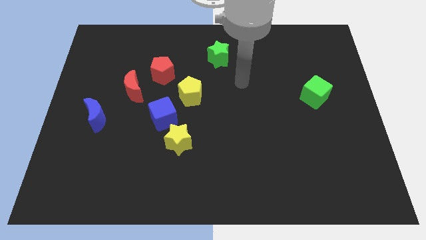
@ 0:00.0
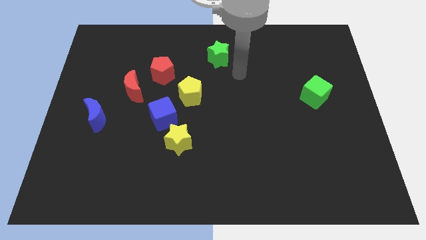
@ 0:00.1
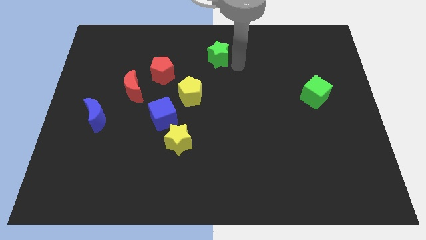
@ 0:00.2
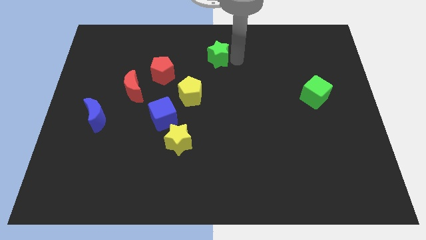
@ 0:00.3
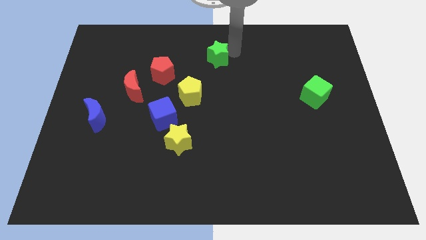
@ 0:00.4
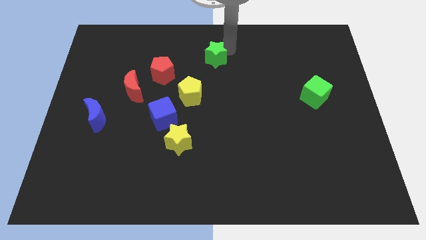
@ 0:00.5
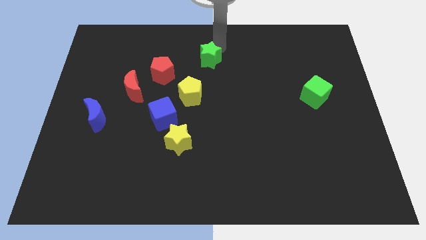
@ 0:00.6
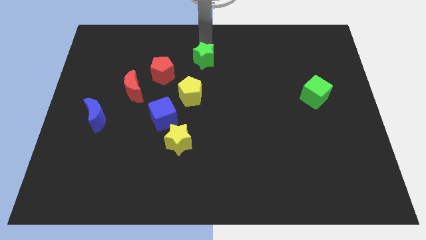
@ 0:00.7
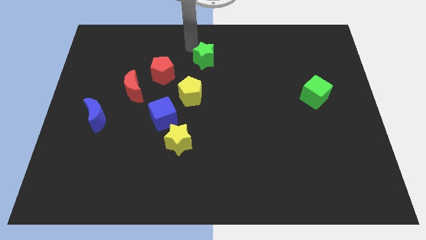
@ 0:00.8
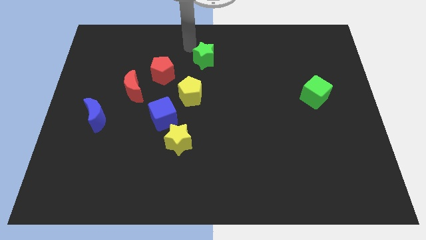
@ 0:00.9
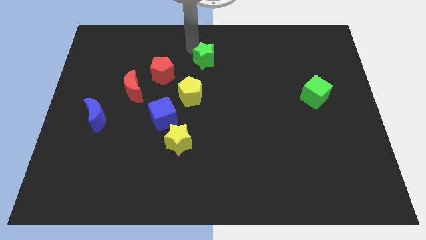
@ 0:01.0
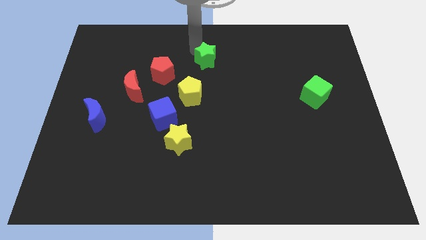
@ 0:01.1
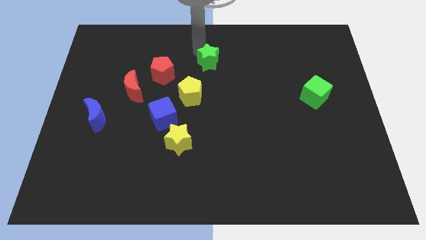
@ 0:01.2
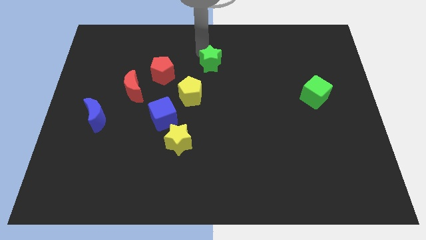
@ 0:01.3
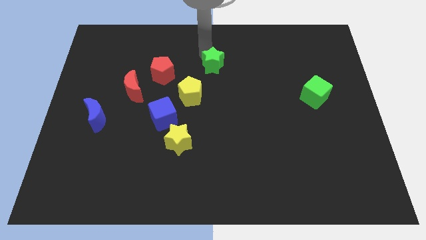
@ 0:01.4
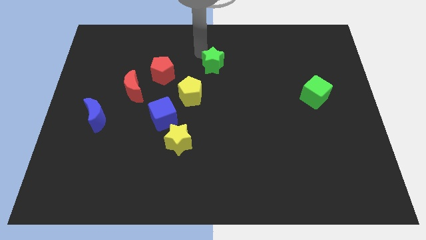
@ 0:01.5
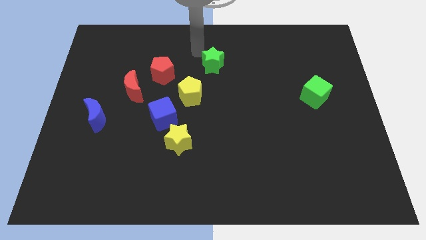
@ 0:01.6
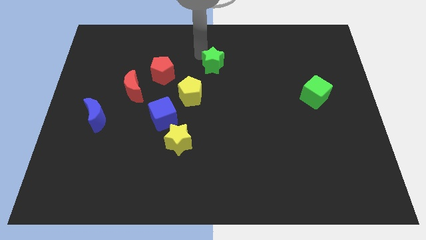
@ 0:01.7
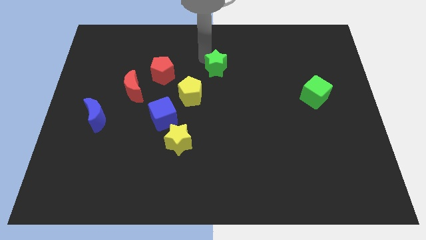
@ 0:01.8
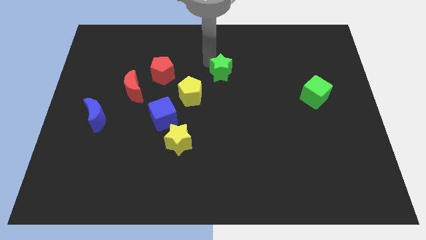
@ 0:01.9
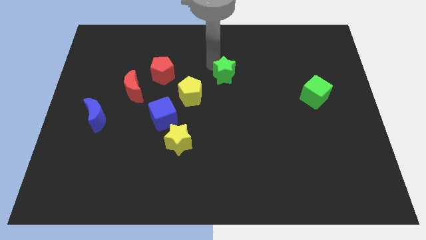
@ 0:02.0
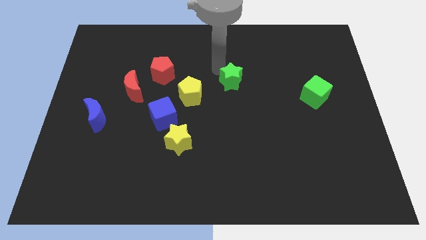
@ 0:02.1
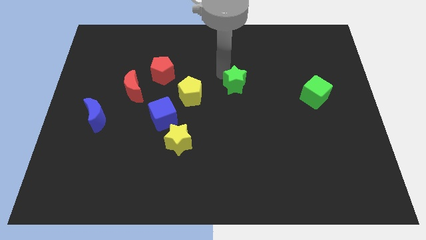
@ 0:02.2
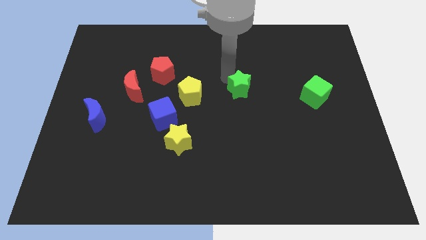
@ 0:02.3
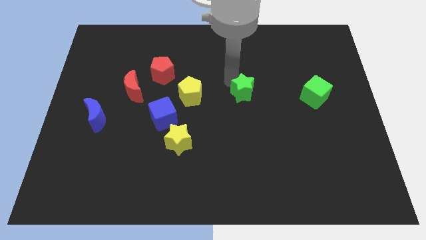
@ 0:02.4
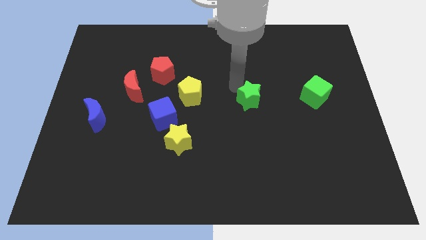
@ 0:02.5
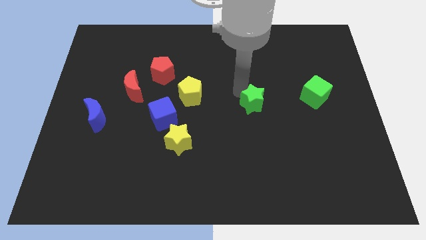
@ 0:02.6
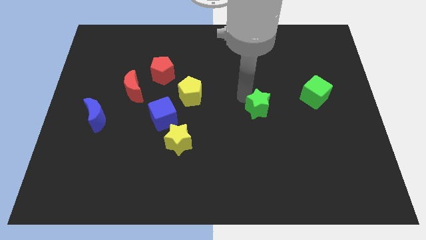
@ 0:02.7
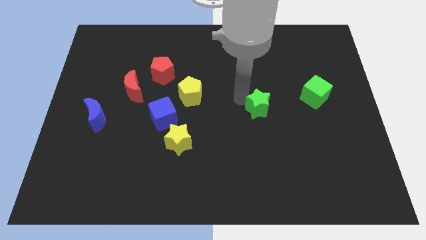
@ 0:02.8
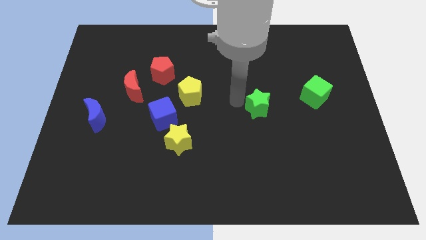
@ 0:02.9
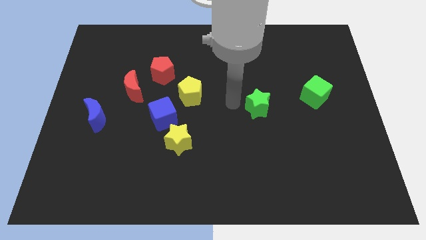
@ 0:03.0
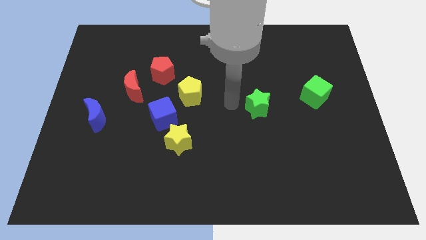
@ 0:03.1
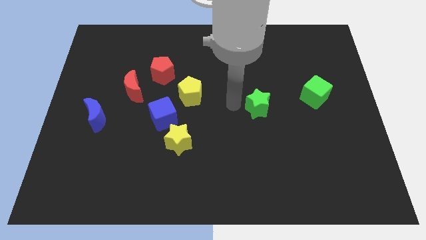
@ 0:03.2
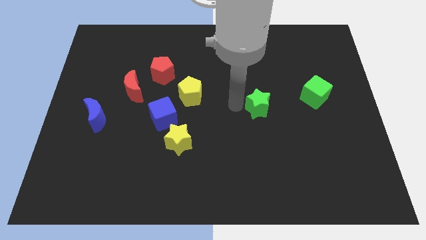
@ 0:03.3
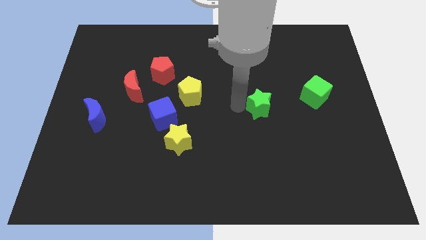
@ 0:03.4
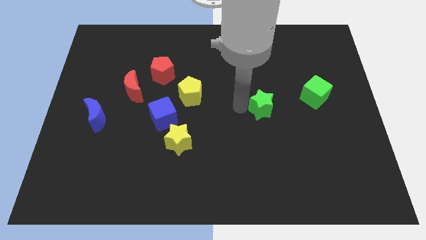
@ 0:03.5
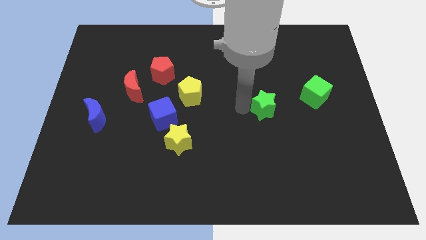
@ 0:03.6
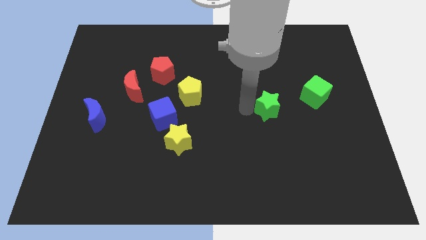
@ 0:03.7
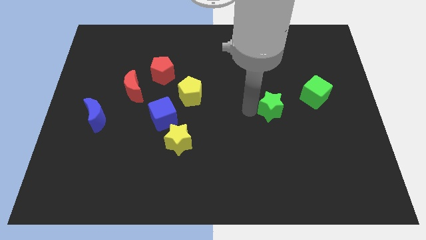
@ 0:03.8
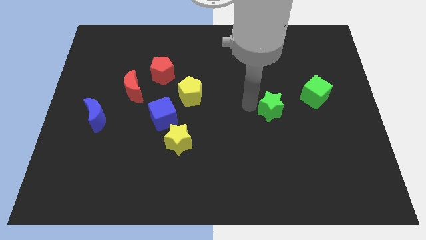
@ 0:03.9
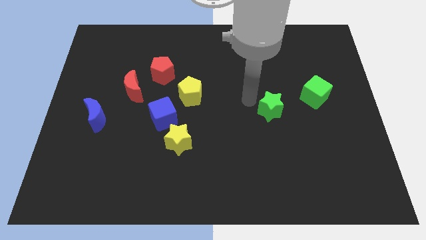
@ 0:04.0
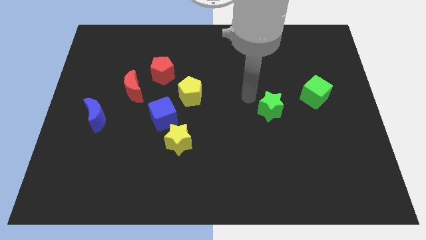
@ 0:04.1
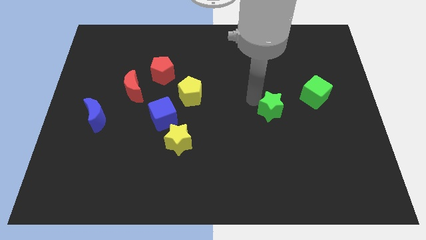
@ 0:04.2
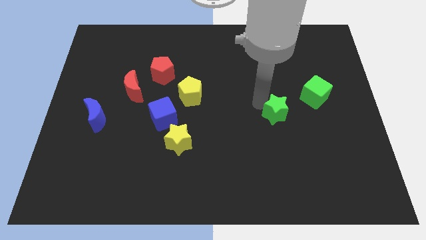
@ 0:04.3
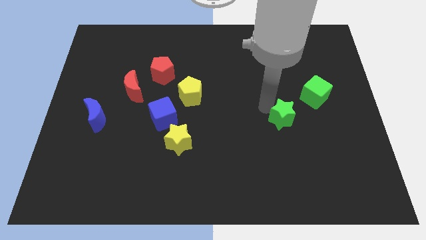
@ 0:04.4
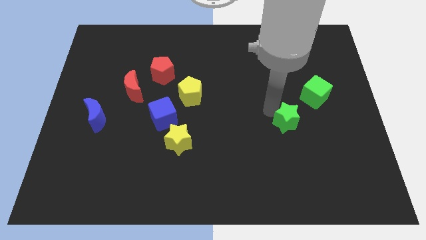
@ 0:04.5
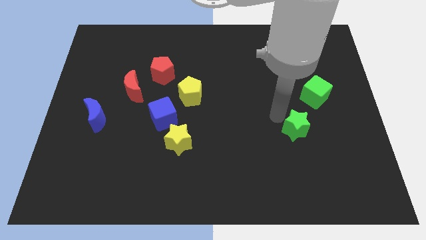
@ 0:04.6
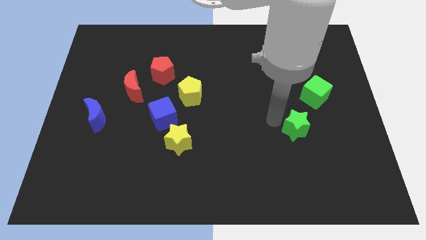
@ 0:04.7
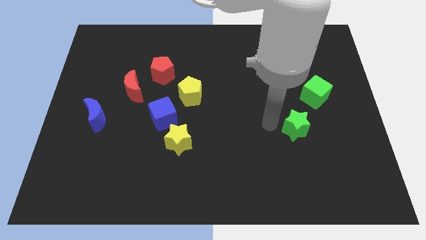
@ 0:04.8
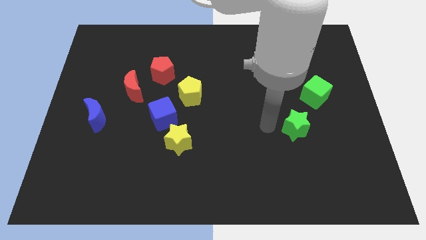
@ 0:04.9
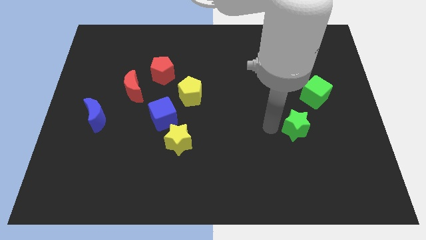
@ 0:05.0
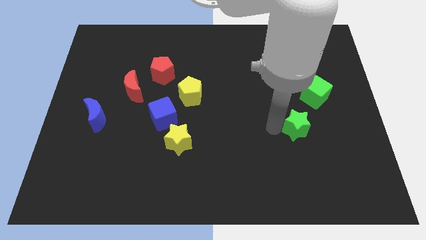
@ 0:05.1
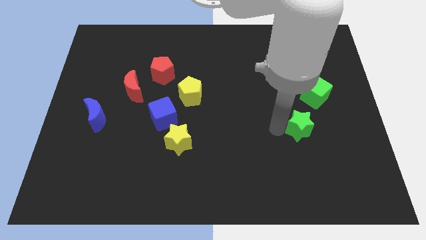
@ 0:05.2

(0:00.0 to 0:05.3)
slide the green star to the bottom side of the green cube

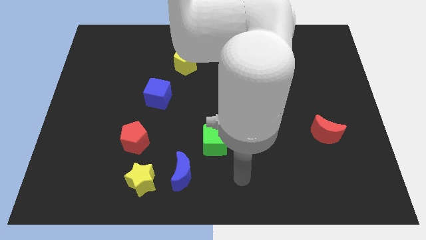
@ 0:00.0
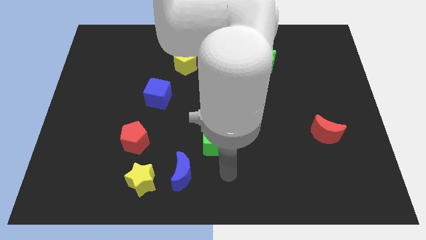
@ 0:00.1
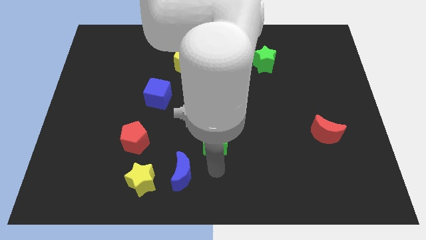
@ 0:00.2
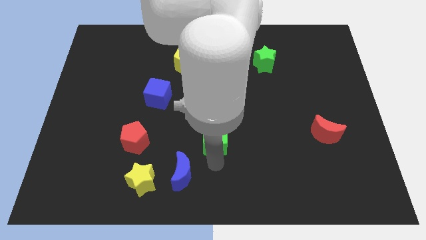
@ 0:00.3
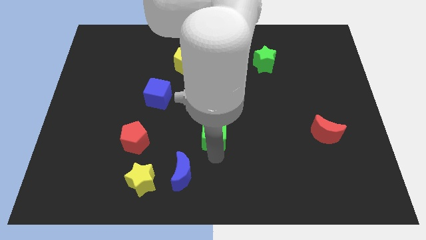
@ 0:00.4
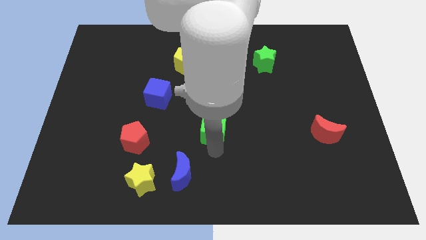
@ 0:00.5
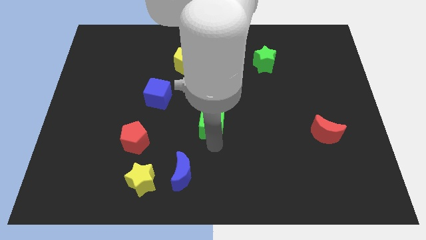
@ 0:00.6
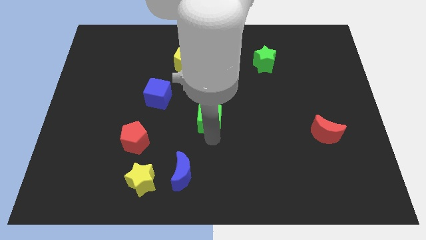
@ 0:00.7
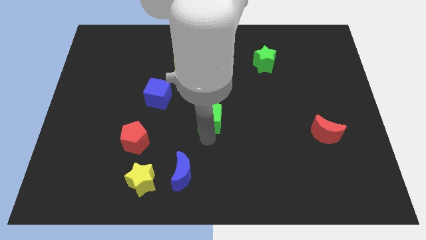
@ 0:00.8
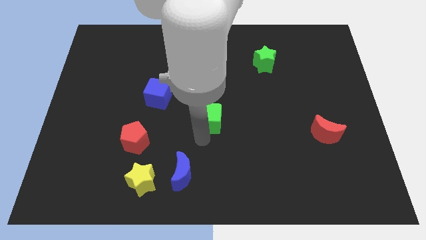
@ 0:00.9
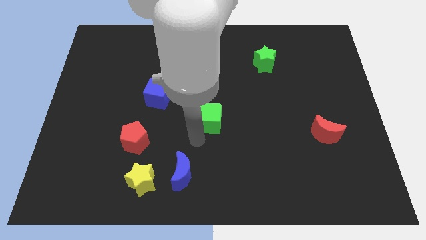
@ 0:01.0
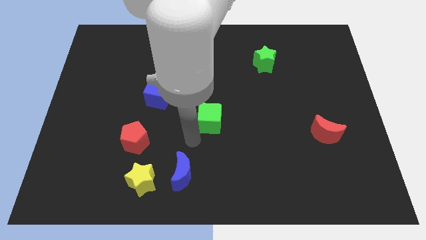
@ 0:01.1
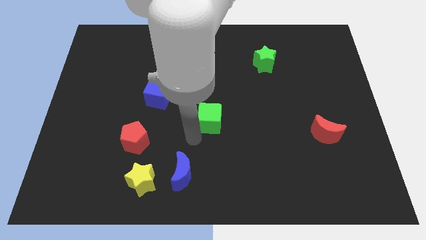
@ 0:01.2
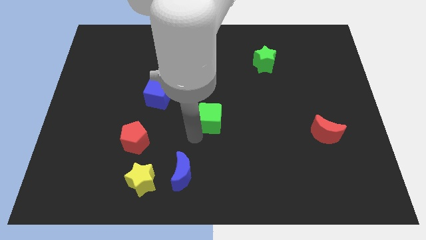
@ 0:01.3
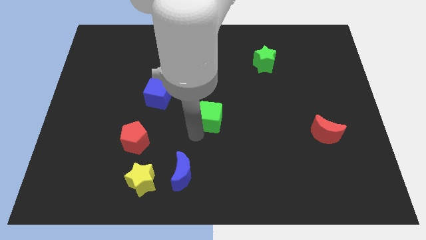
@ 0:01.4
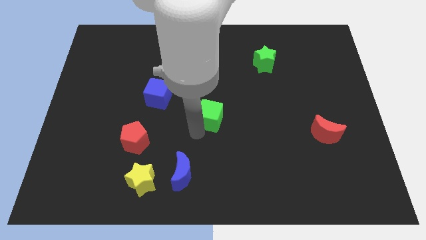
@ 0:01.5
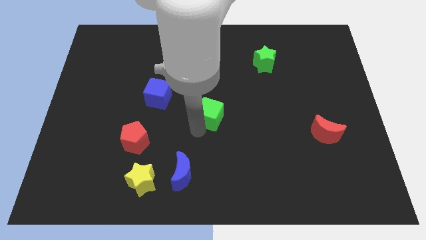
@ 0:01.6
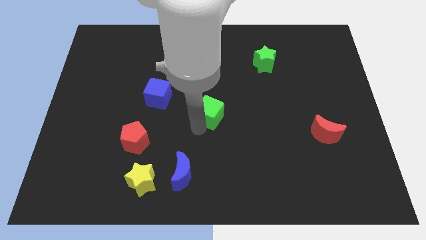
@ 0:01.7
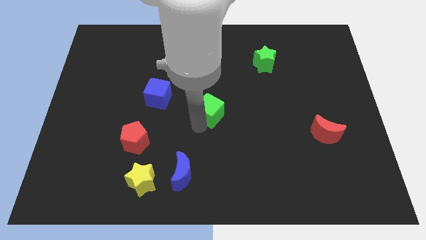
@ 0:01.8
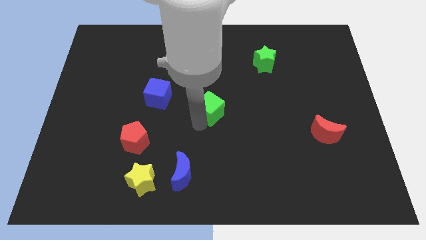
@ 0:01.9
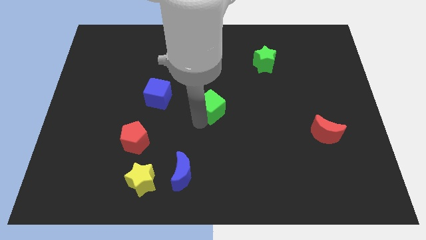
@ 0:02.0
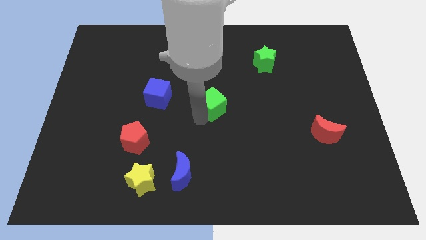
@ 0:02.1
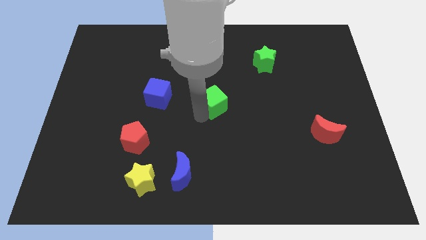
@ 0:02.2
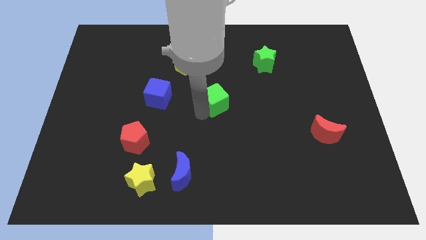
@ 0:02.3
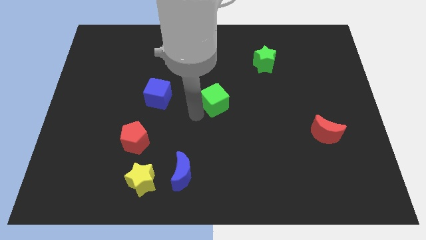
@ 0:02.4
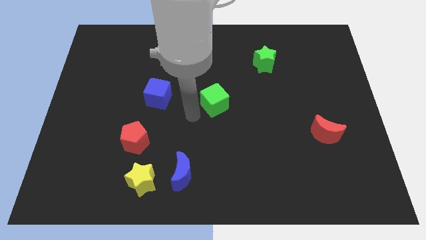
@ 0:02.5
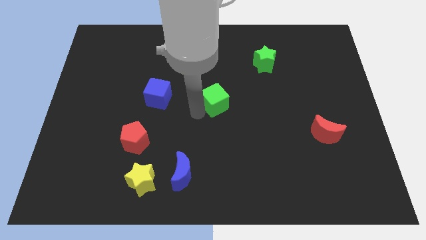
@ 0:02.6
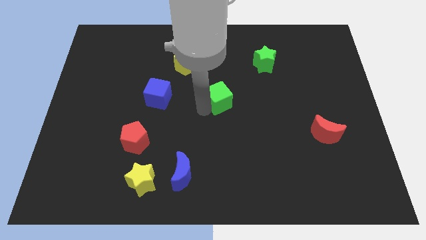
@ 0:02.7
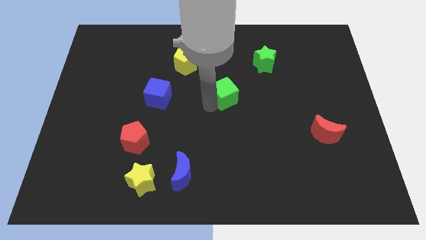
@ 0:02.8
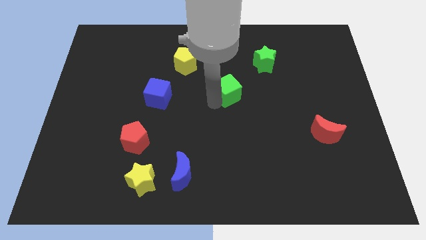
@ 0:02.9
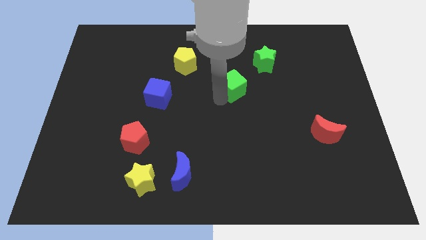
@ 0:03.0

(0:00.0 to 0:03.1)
put the green cube to the bottom left of the green star
